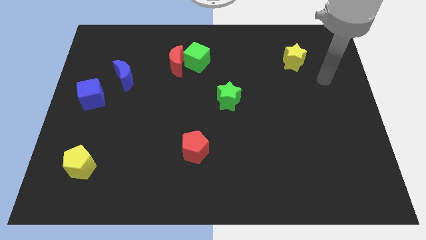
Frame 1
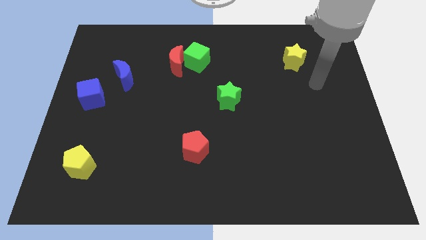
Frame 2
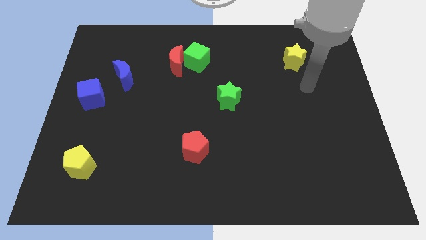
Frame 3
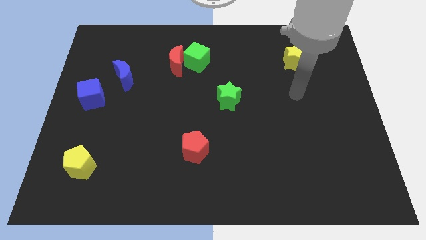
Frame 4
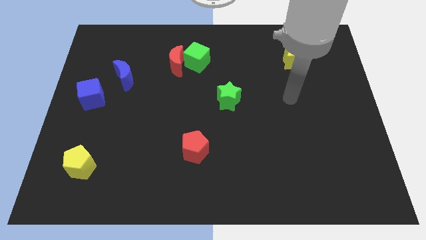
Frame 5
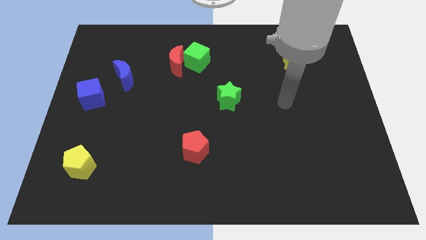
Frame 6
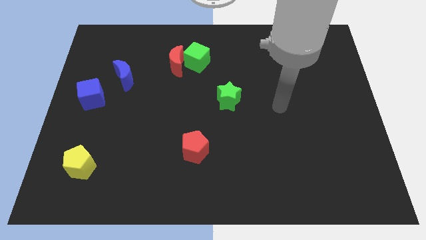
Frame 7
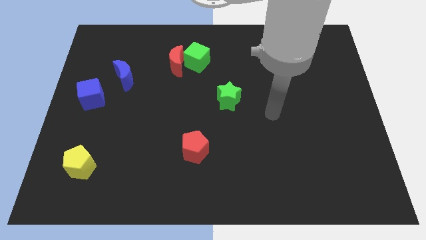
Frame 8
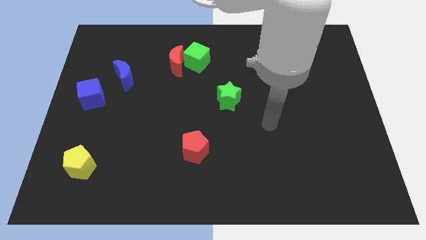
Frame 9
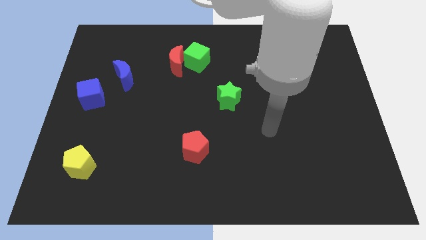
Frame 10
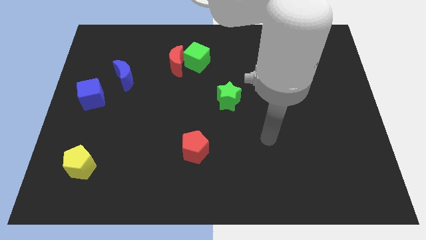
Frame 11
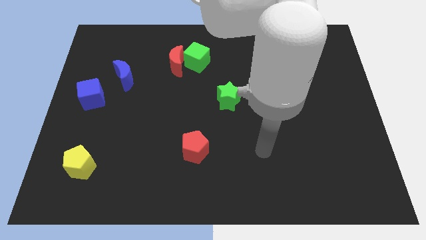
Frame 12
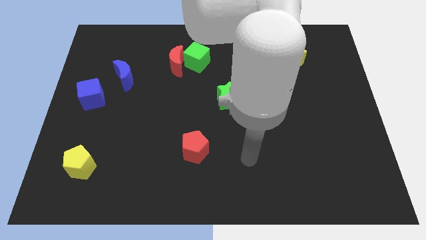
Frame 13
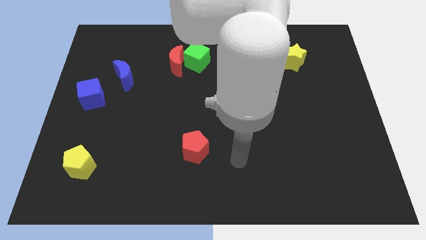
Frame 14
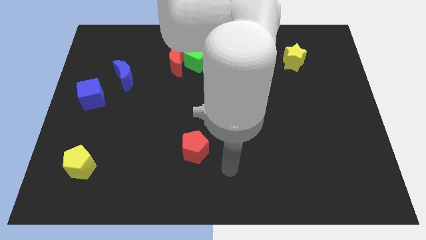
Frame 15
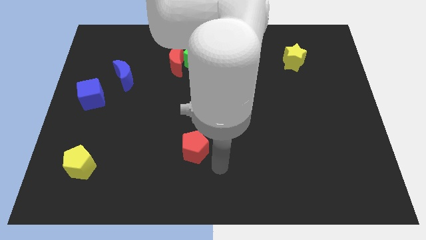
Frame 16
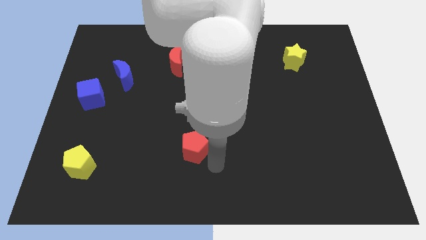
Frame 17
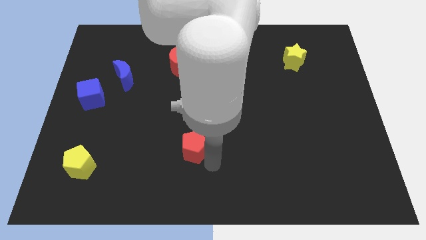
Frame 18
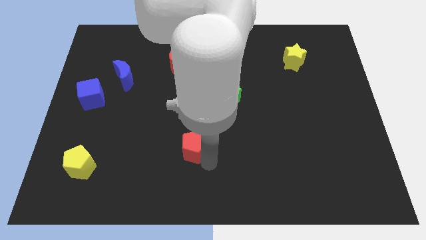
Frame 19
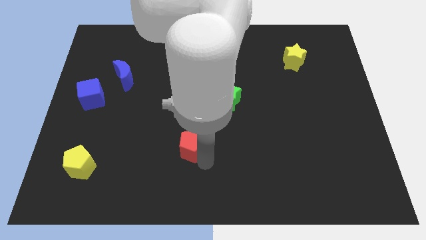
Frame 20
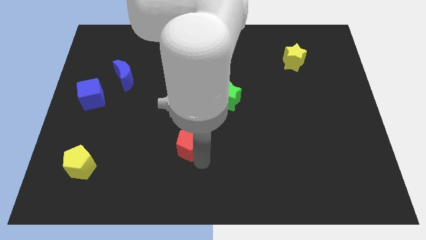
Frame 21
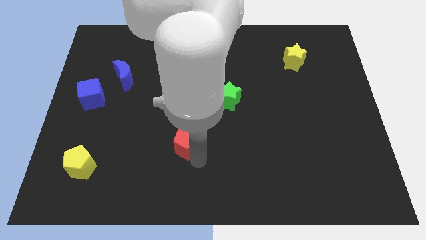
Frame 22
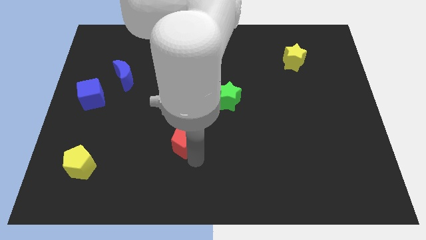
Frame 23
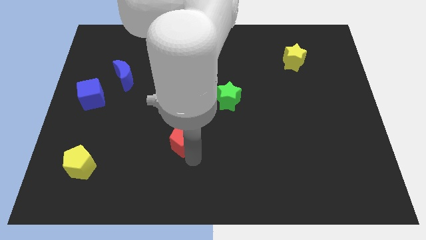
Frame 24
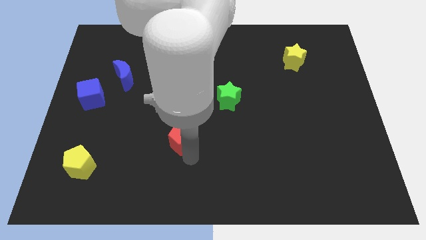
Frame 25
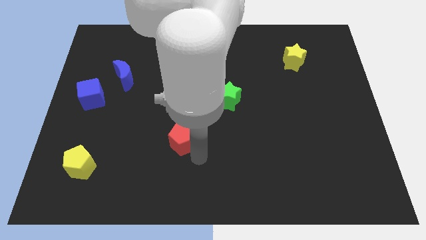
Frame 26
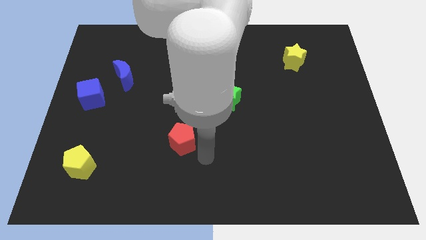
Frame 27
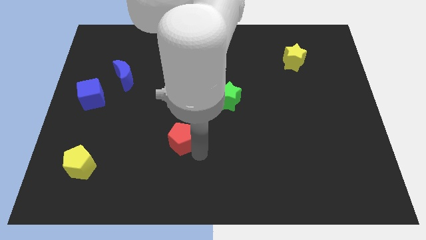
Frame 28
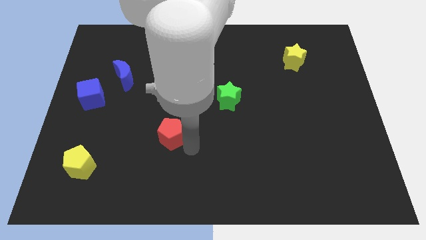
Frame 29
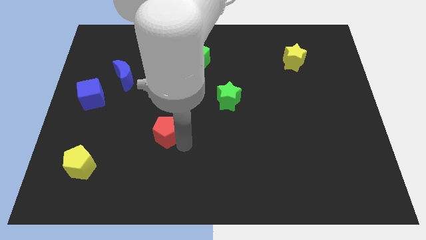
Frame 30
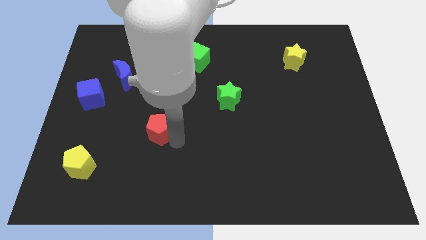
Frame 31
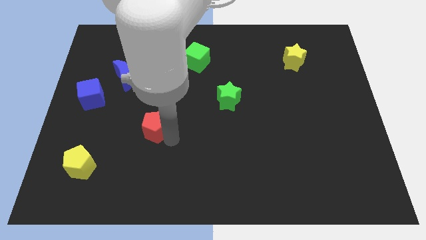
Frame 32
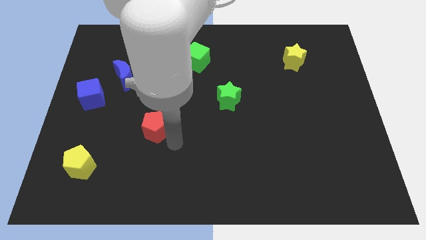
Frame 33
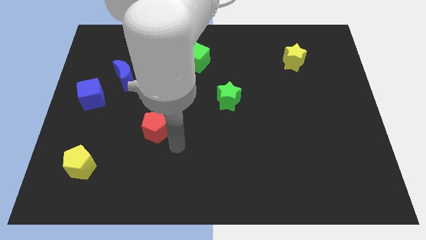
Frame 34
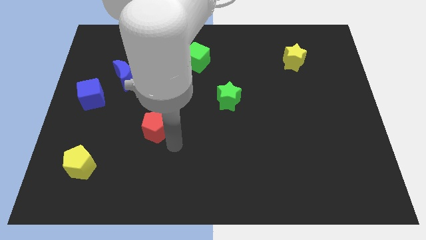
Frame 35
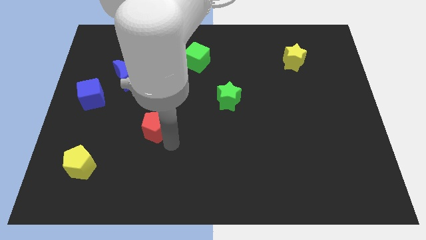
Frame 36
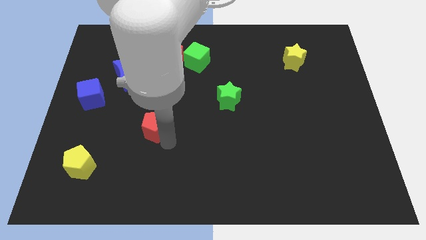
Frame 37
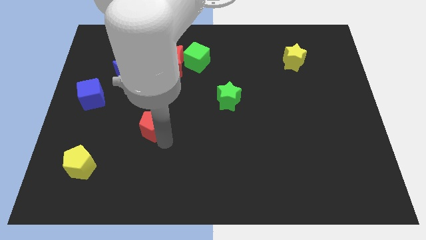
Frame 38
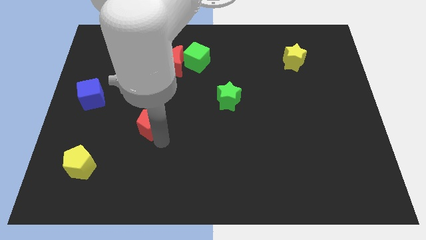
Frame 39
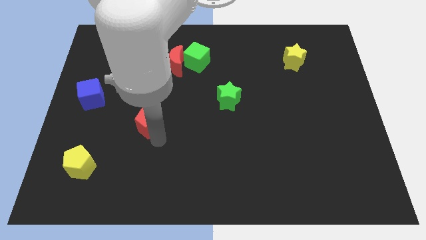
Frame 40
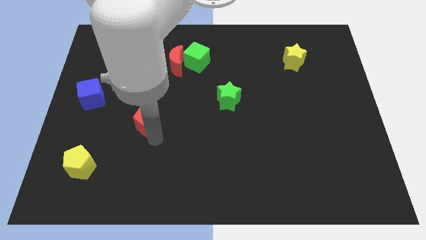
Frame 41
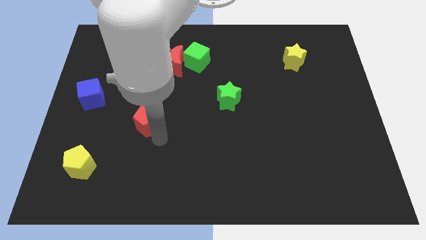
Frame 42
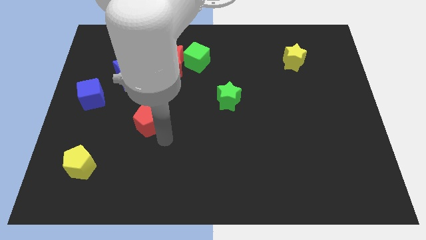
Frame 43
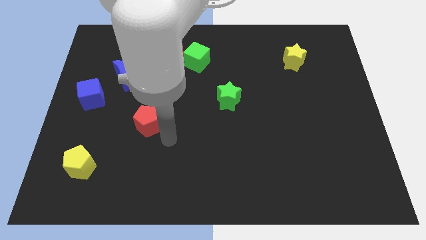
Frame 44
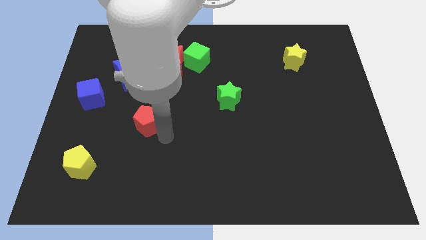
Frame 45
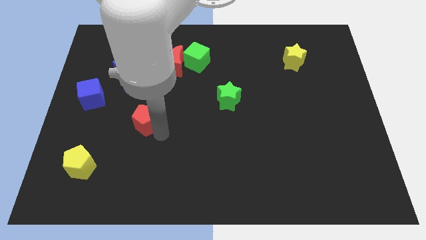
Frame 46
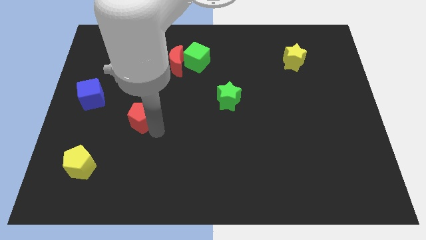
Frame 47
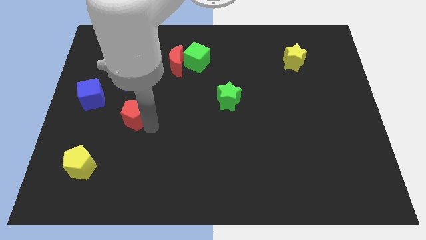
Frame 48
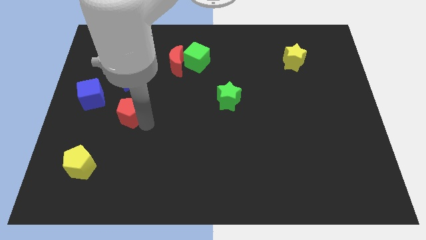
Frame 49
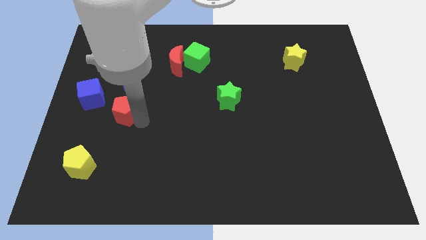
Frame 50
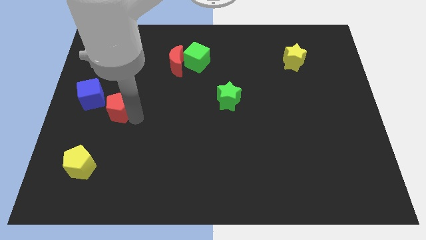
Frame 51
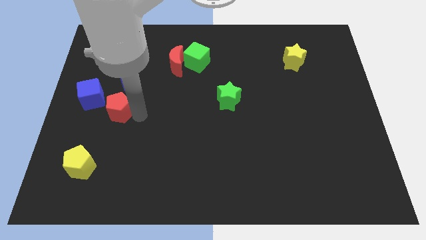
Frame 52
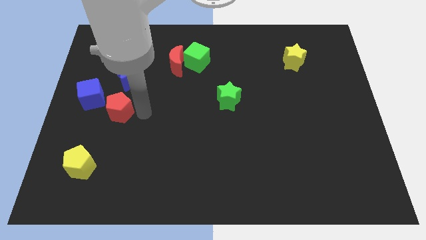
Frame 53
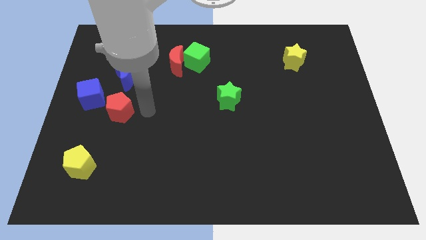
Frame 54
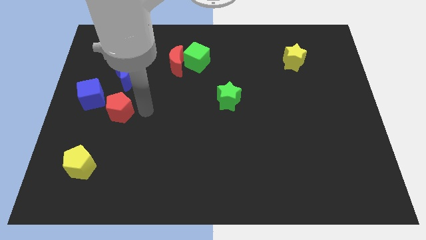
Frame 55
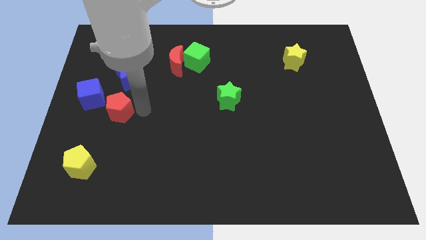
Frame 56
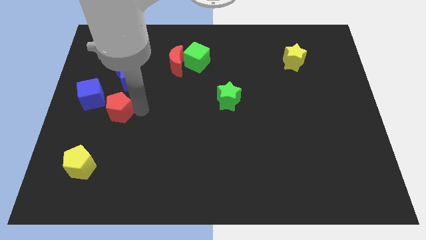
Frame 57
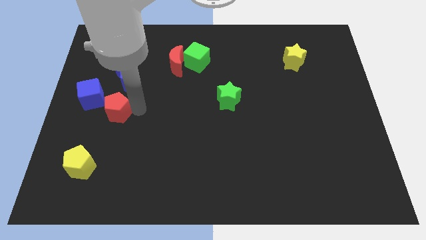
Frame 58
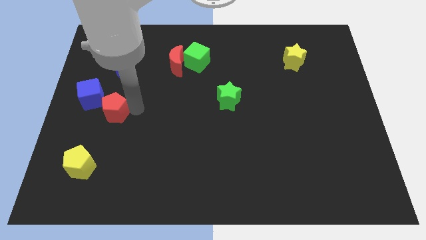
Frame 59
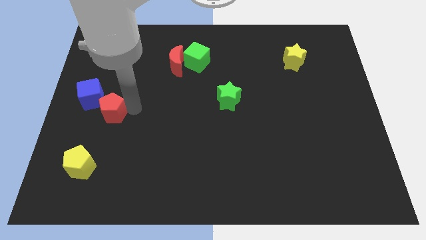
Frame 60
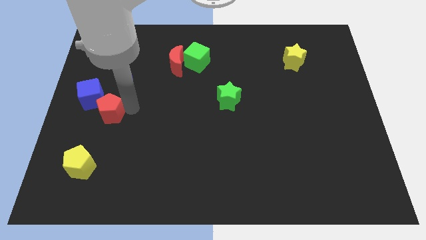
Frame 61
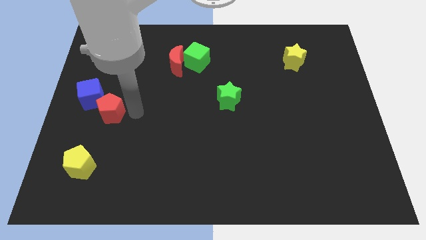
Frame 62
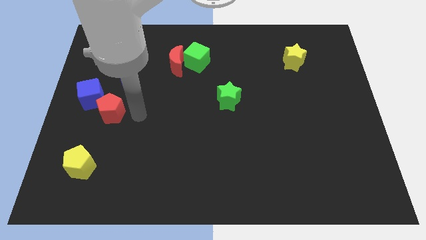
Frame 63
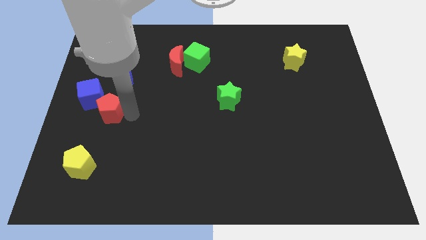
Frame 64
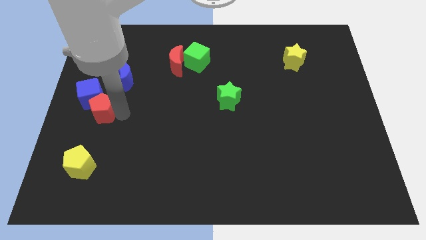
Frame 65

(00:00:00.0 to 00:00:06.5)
put the red pentagon to the left side
